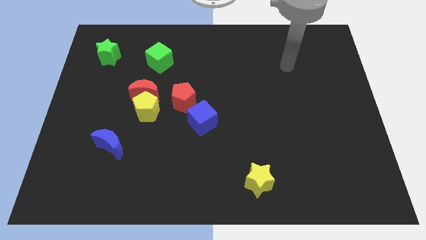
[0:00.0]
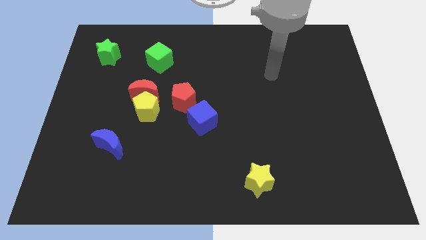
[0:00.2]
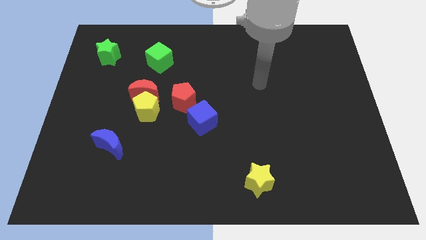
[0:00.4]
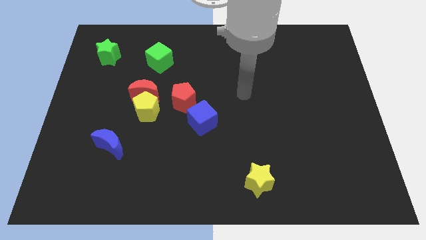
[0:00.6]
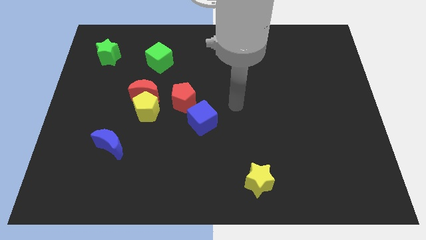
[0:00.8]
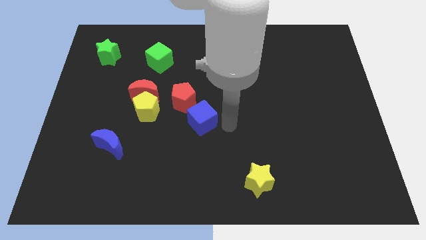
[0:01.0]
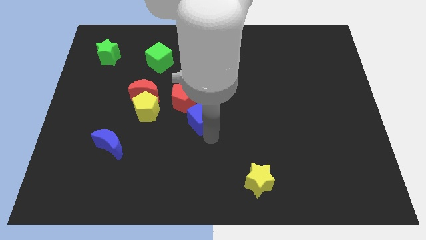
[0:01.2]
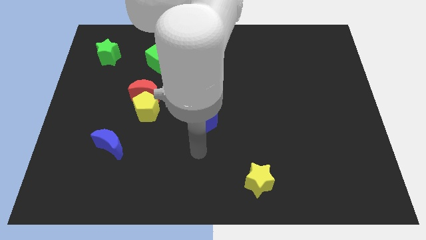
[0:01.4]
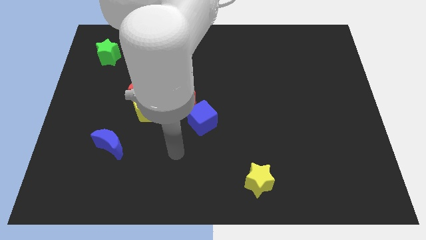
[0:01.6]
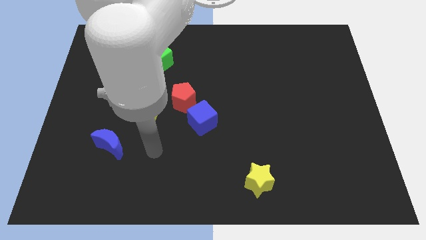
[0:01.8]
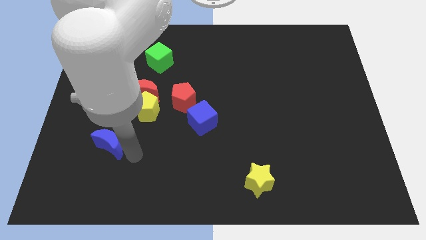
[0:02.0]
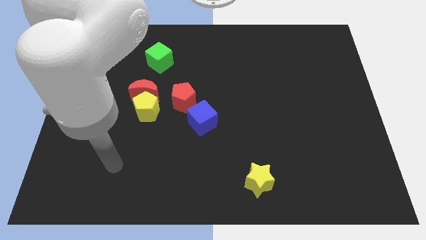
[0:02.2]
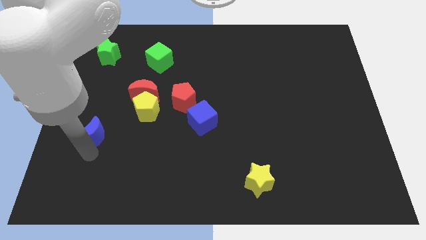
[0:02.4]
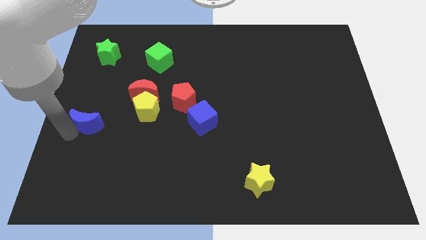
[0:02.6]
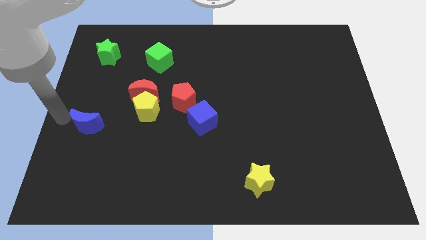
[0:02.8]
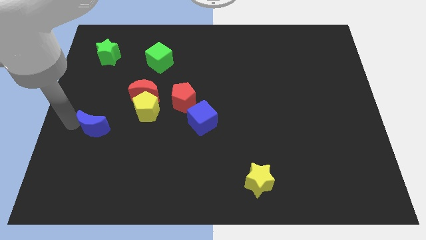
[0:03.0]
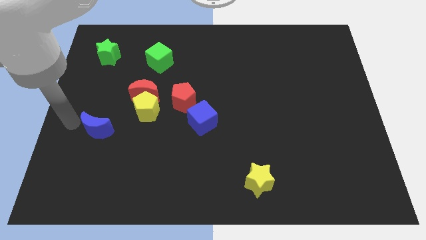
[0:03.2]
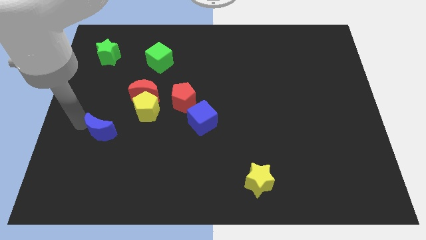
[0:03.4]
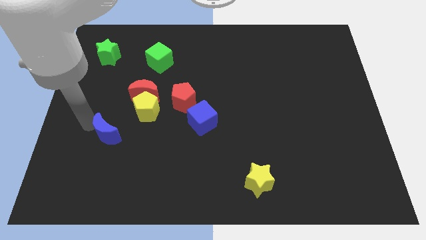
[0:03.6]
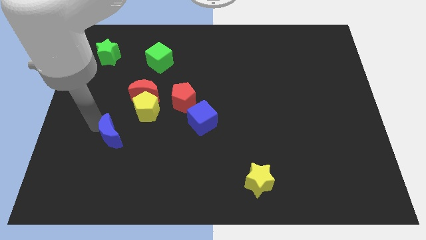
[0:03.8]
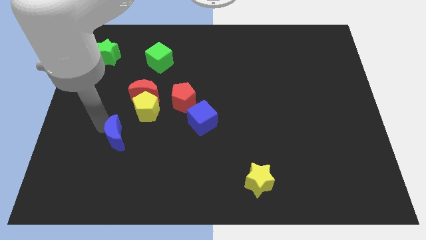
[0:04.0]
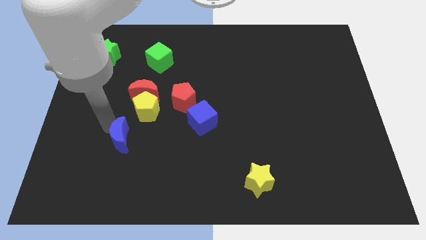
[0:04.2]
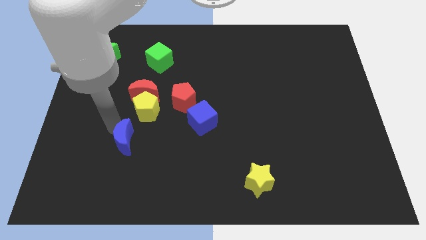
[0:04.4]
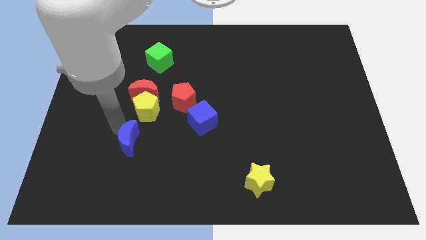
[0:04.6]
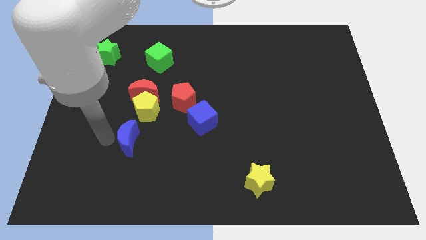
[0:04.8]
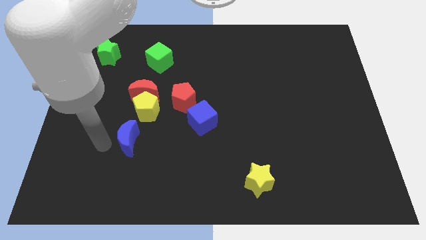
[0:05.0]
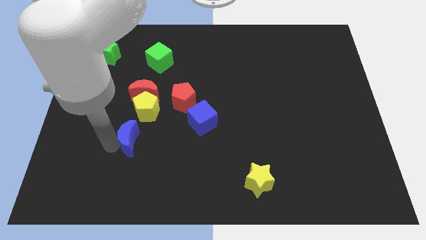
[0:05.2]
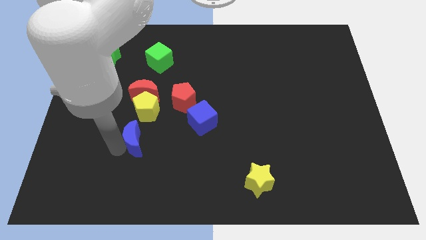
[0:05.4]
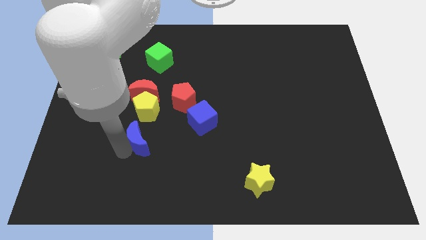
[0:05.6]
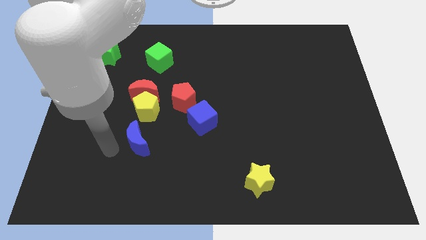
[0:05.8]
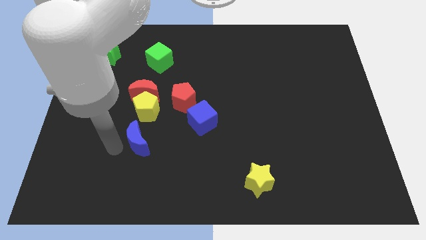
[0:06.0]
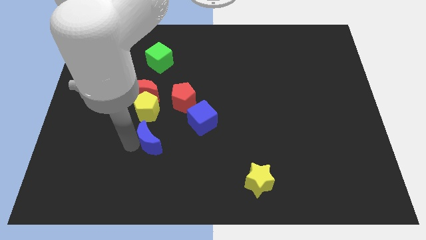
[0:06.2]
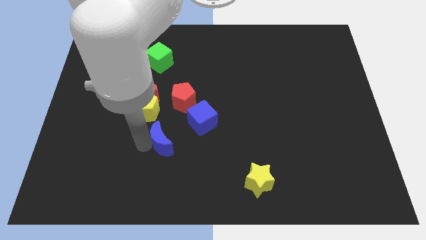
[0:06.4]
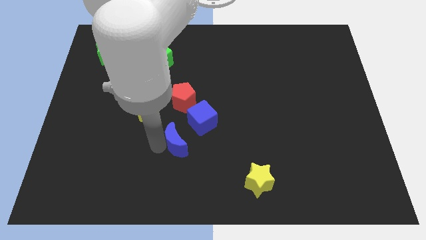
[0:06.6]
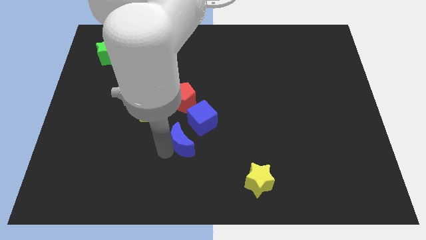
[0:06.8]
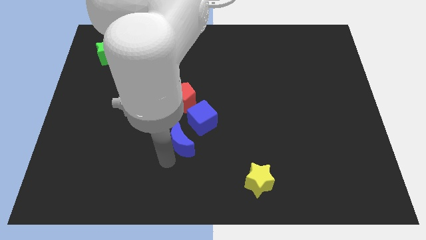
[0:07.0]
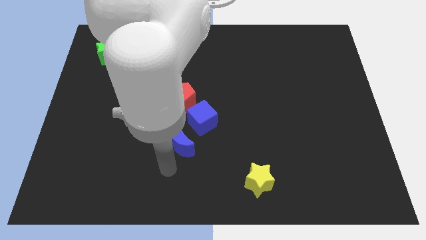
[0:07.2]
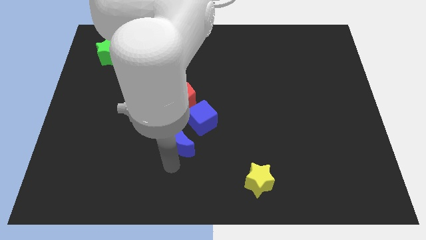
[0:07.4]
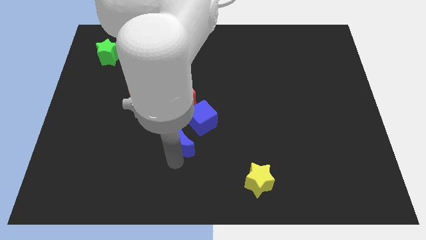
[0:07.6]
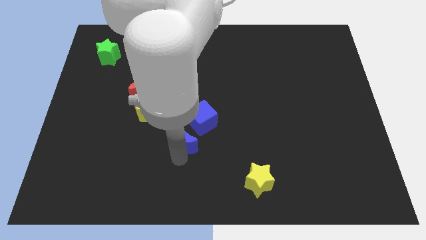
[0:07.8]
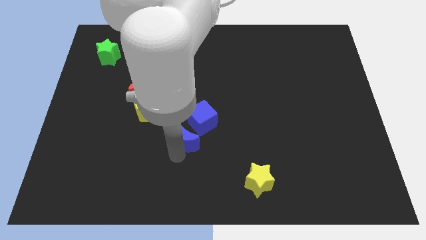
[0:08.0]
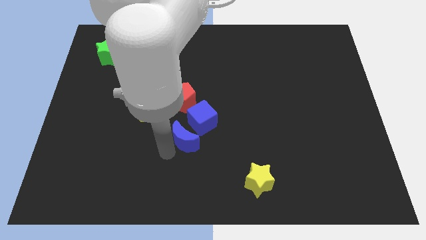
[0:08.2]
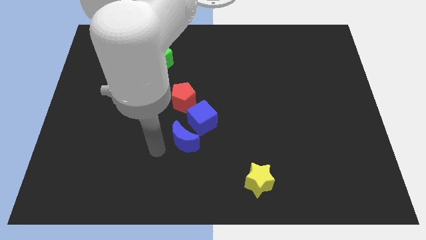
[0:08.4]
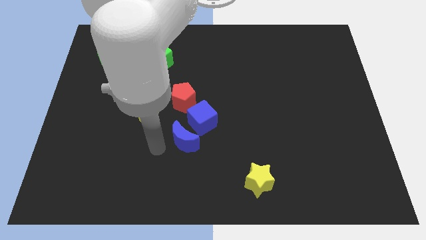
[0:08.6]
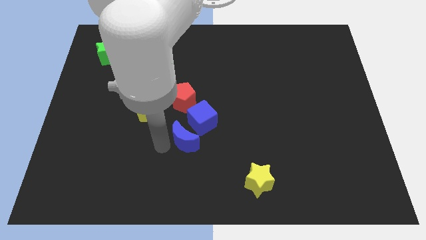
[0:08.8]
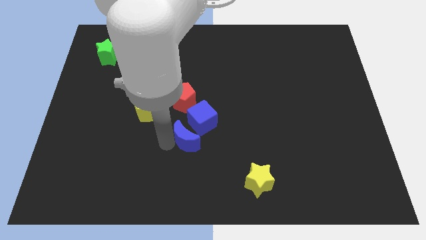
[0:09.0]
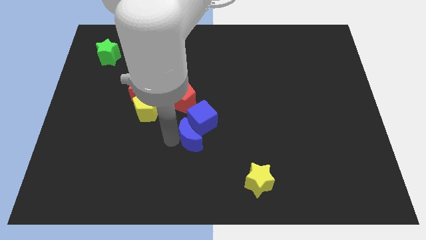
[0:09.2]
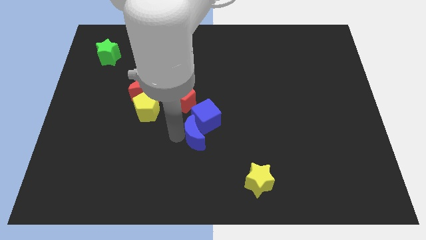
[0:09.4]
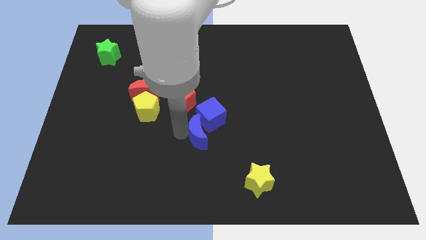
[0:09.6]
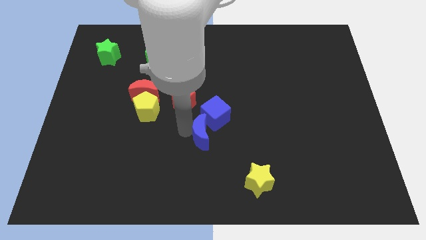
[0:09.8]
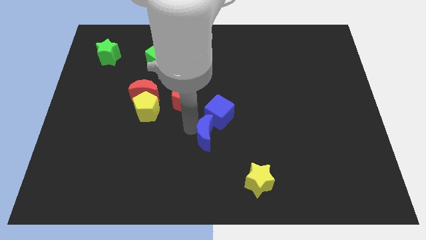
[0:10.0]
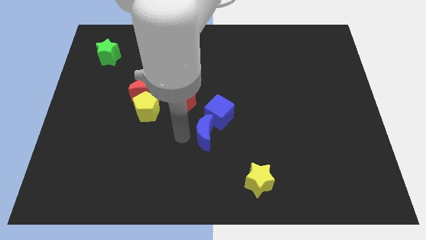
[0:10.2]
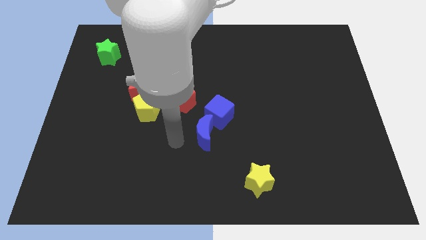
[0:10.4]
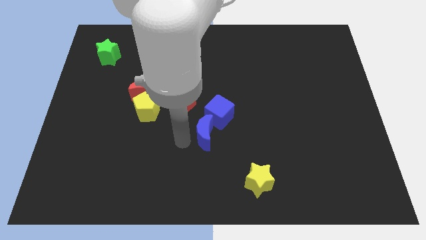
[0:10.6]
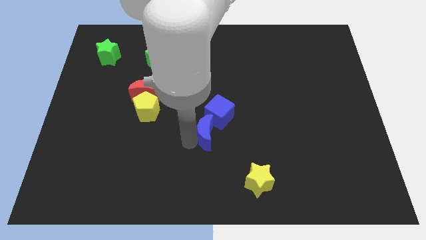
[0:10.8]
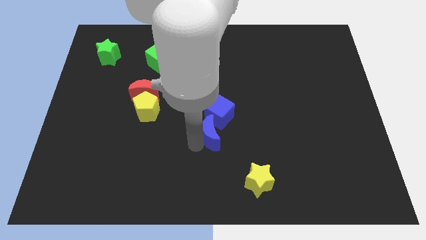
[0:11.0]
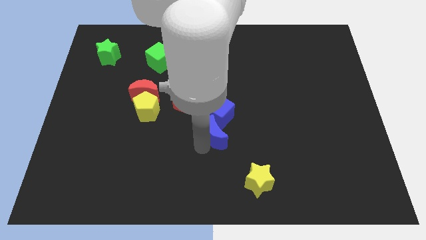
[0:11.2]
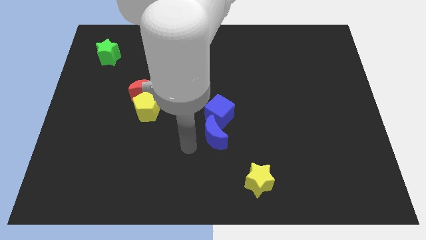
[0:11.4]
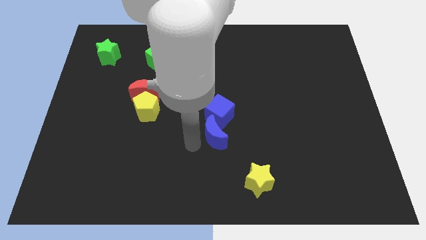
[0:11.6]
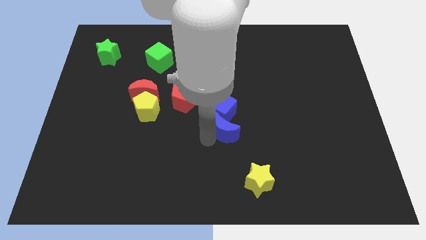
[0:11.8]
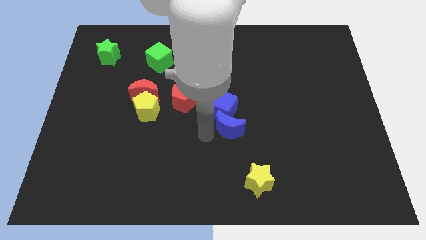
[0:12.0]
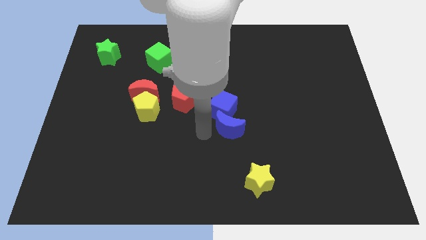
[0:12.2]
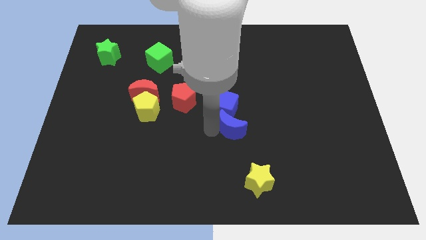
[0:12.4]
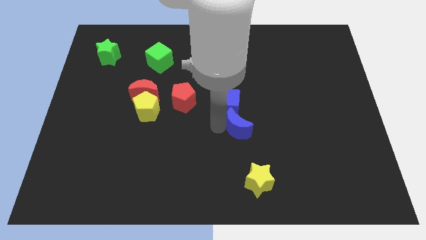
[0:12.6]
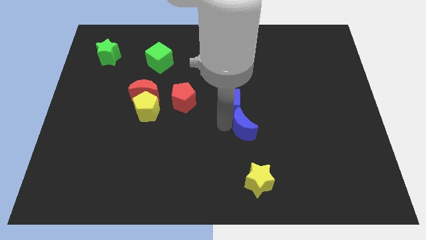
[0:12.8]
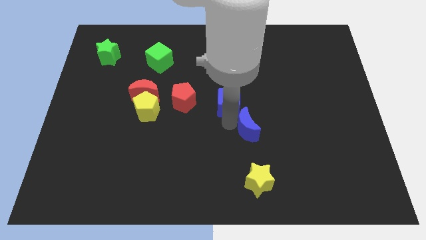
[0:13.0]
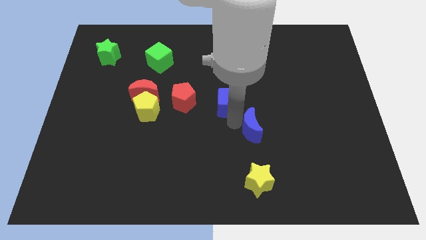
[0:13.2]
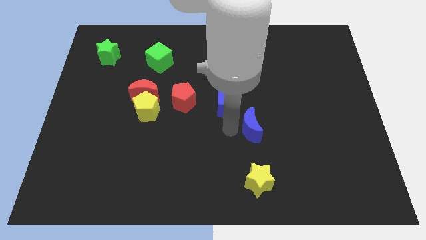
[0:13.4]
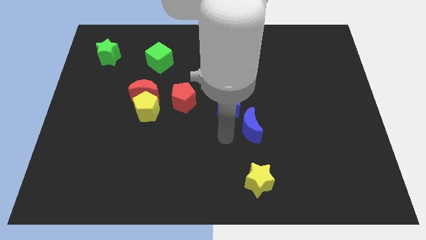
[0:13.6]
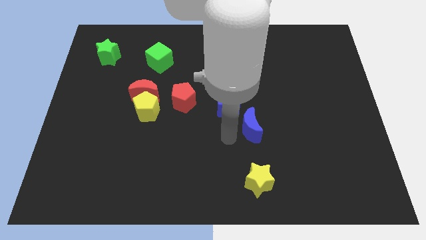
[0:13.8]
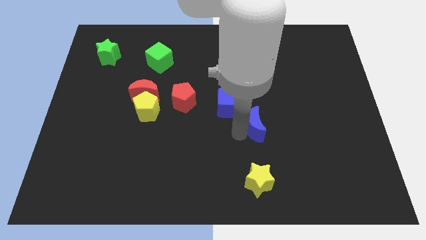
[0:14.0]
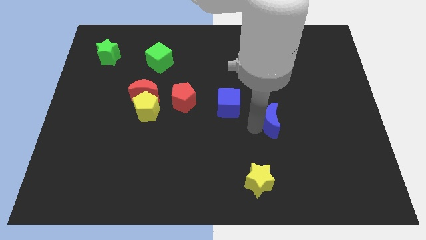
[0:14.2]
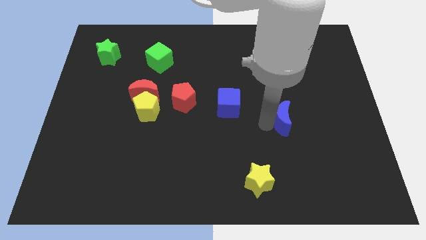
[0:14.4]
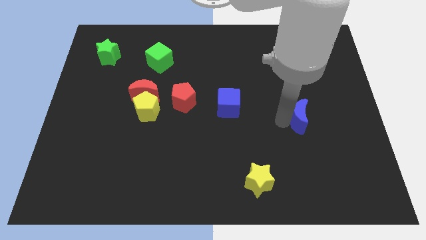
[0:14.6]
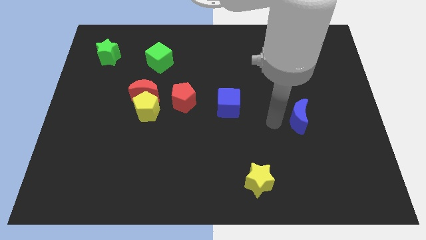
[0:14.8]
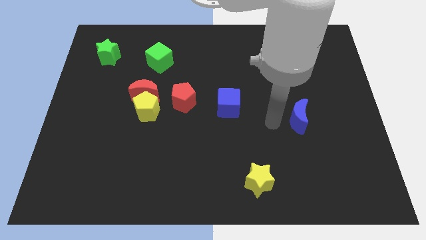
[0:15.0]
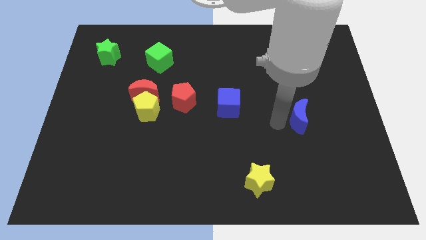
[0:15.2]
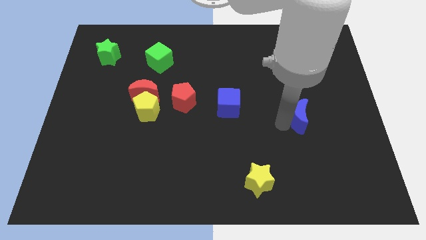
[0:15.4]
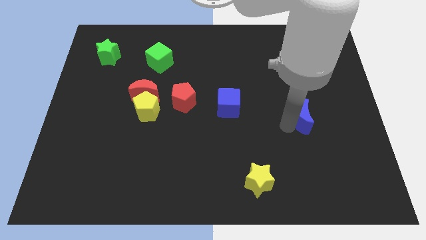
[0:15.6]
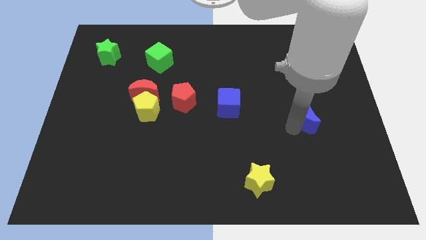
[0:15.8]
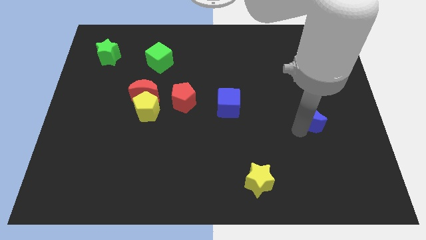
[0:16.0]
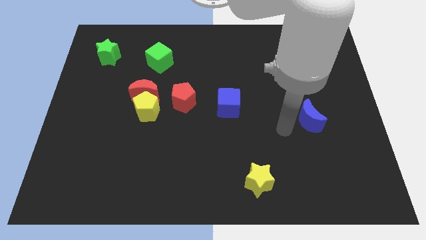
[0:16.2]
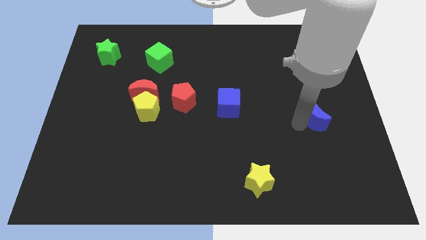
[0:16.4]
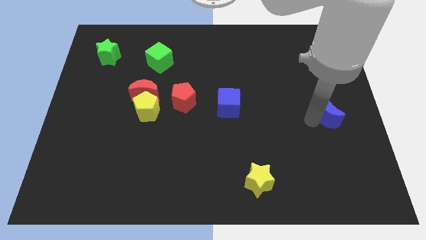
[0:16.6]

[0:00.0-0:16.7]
slide the blue moon to the right side
